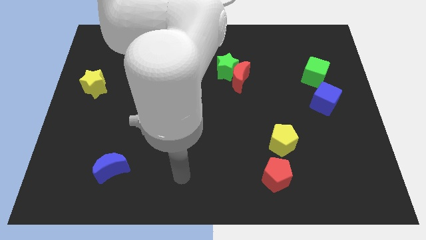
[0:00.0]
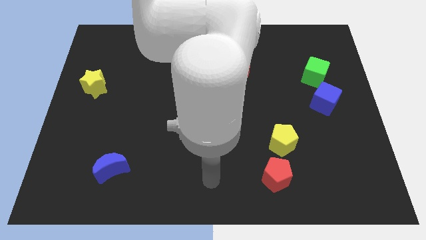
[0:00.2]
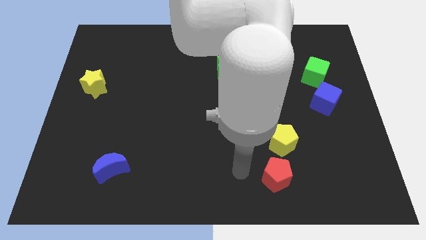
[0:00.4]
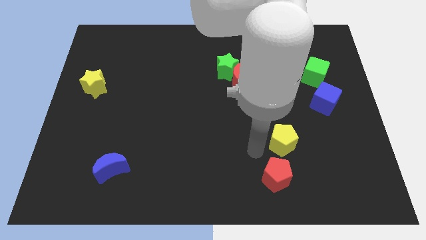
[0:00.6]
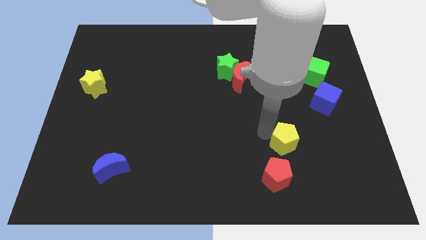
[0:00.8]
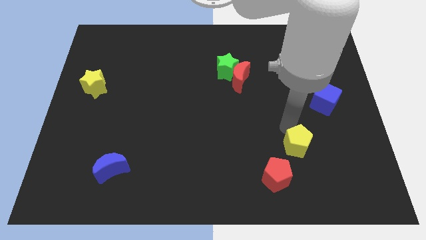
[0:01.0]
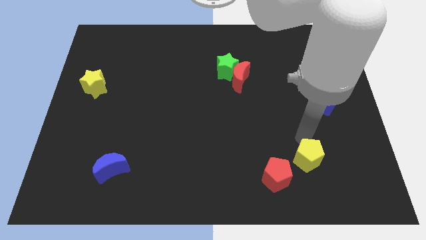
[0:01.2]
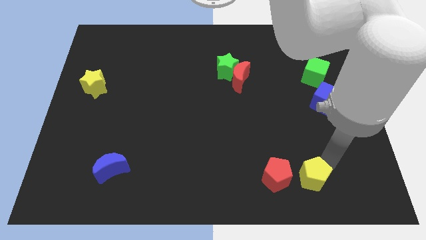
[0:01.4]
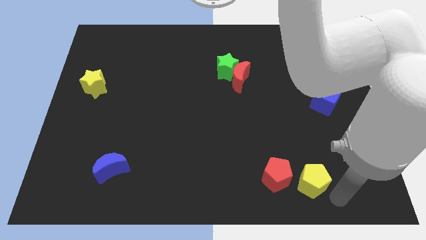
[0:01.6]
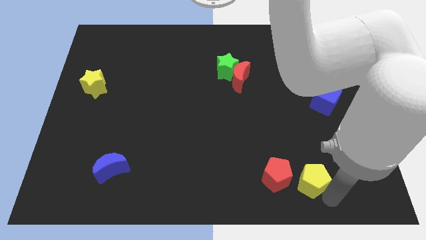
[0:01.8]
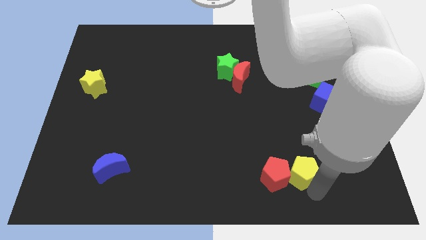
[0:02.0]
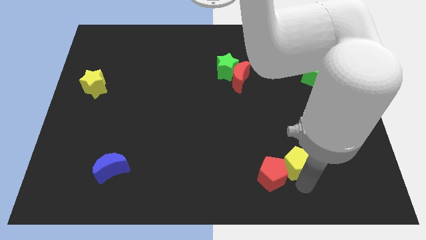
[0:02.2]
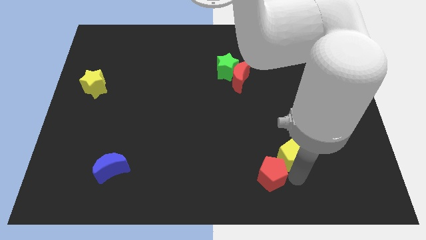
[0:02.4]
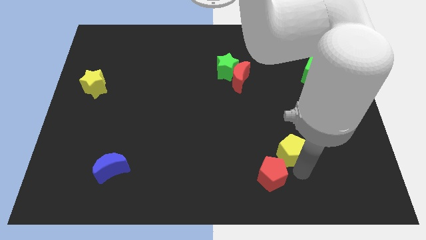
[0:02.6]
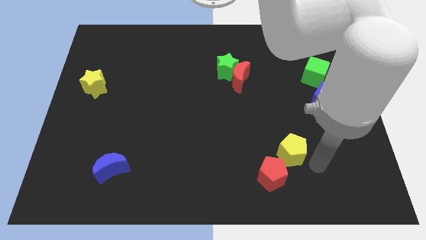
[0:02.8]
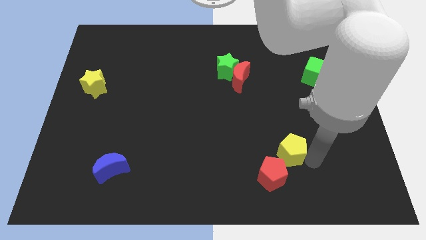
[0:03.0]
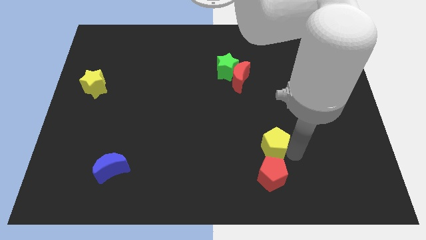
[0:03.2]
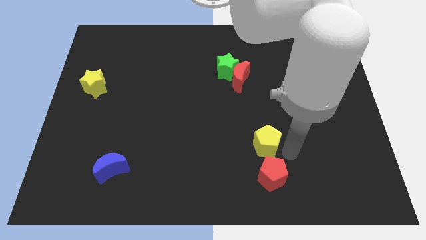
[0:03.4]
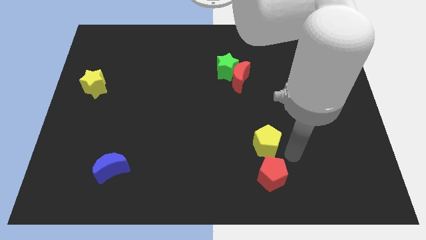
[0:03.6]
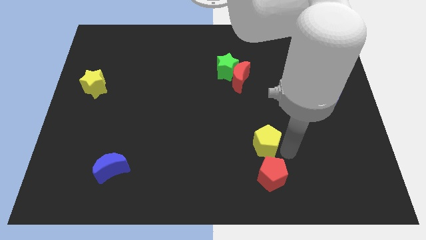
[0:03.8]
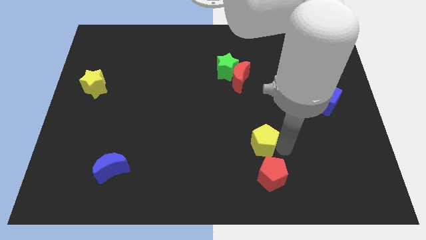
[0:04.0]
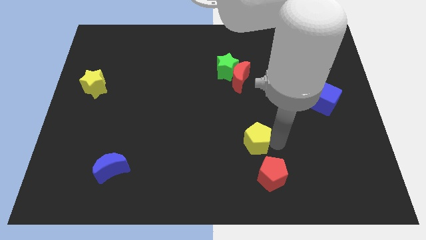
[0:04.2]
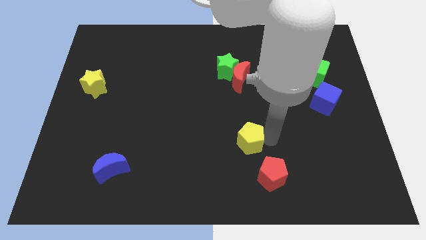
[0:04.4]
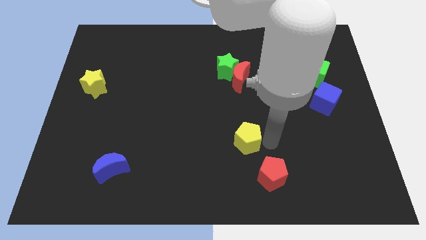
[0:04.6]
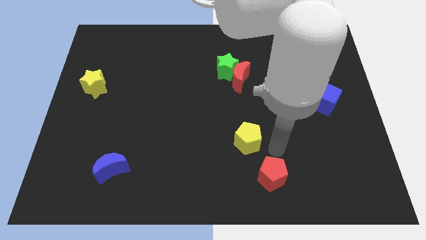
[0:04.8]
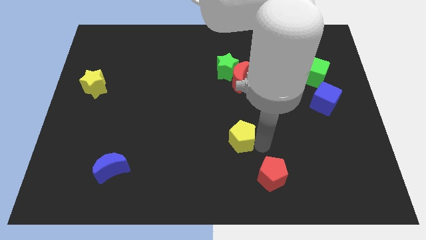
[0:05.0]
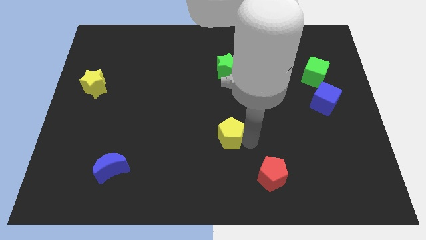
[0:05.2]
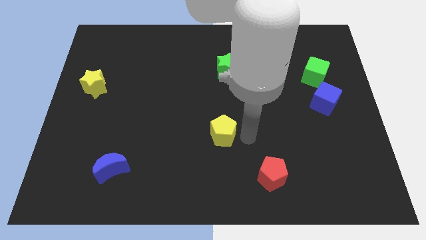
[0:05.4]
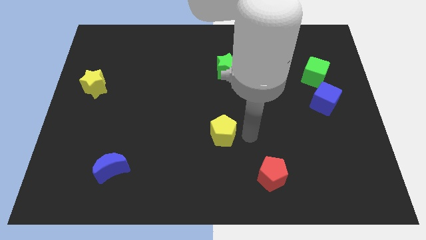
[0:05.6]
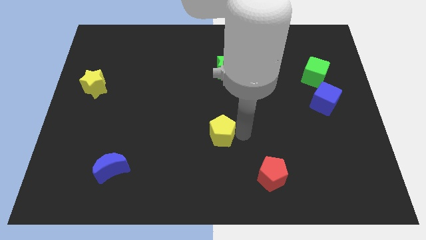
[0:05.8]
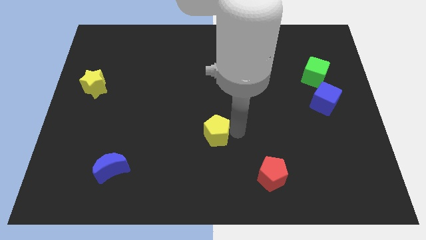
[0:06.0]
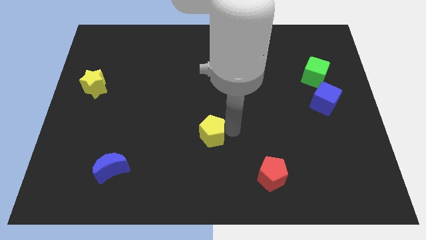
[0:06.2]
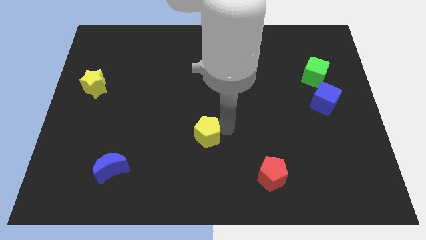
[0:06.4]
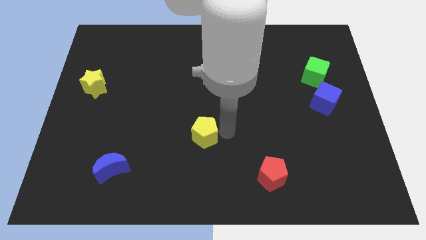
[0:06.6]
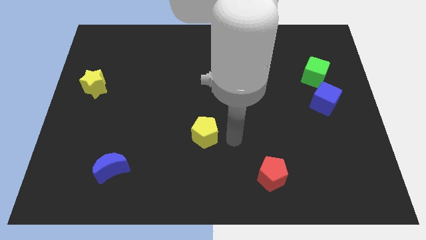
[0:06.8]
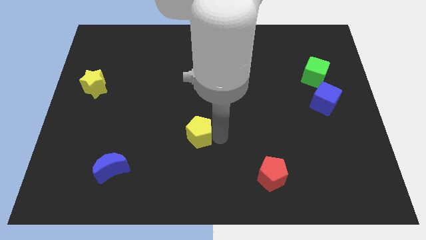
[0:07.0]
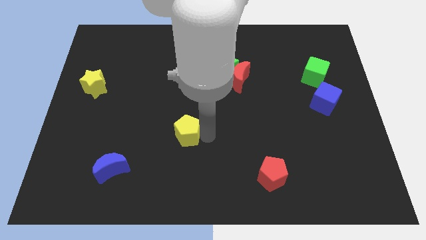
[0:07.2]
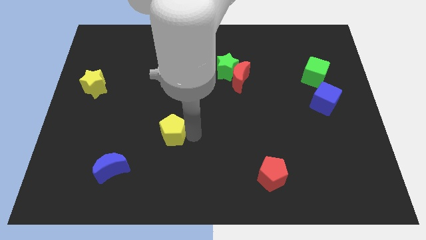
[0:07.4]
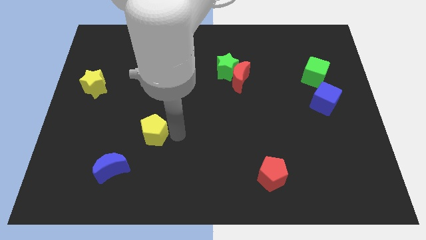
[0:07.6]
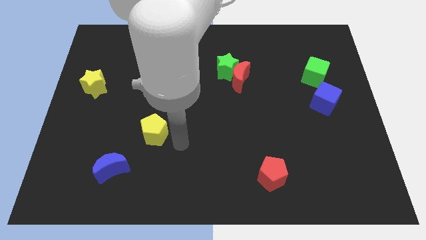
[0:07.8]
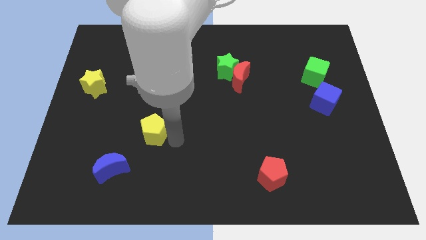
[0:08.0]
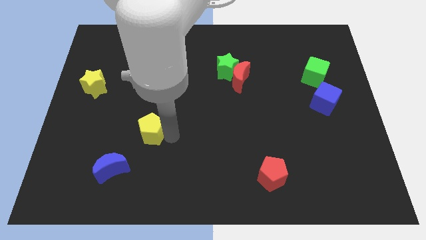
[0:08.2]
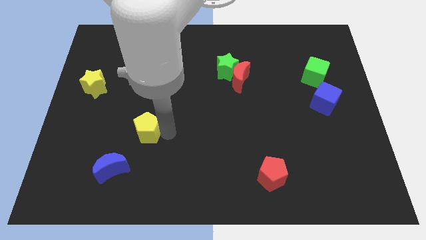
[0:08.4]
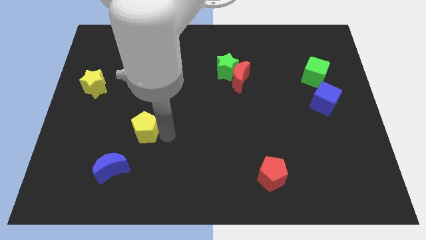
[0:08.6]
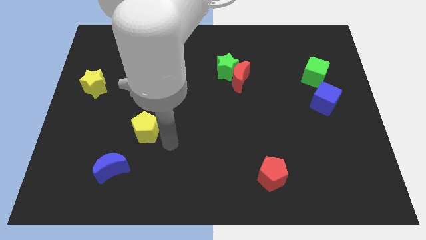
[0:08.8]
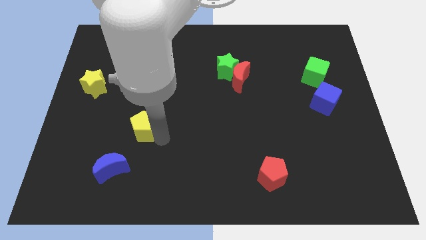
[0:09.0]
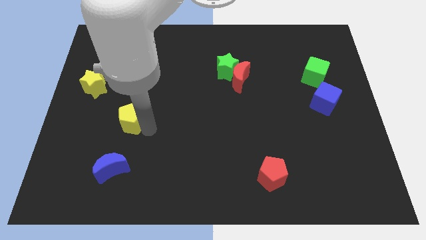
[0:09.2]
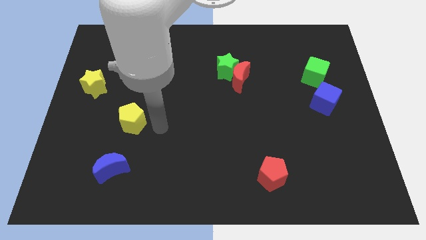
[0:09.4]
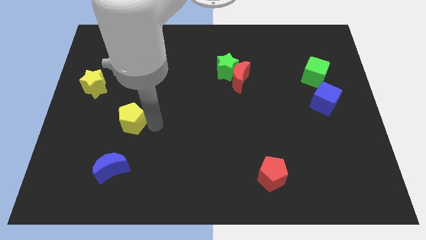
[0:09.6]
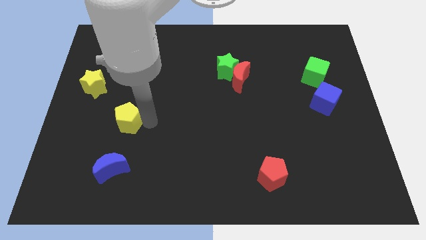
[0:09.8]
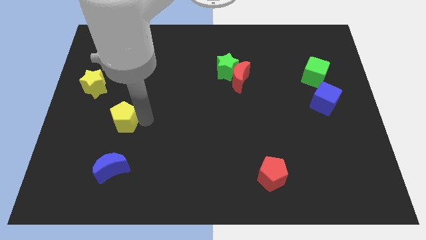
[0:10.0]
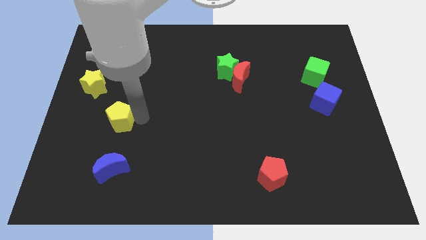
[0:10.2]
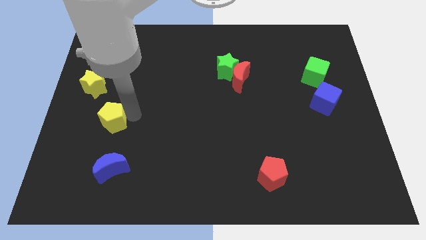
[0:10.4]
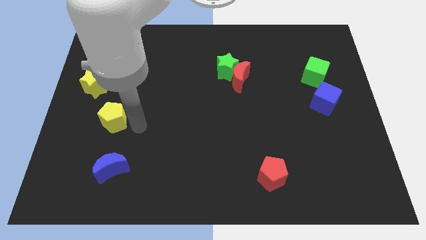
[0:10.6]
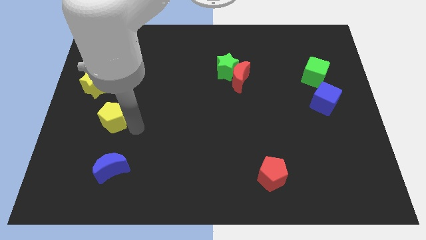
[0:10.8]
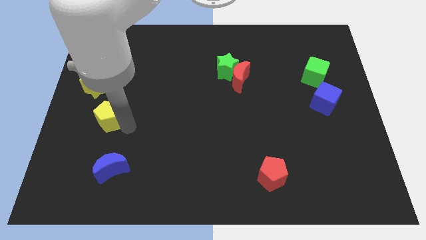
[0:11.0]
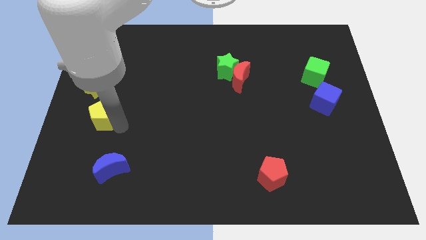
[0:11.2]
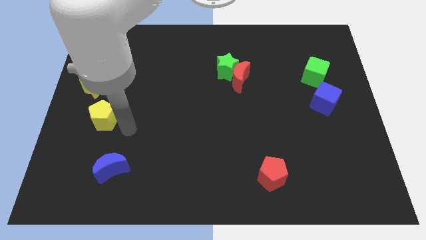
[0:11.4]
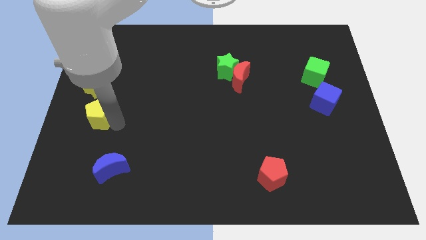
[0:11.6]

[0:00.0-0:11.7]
put the yellow pentagon to the left side
